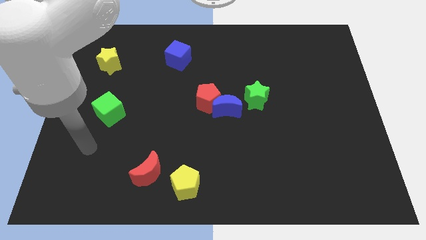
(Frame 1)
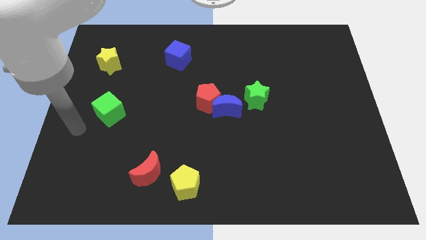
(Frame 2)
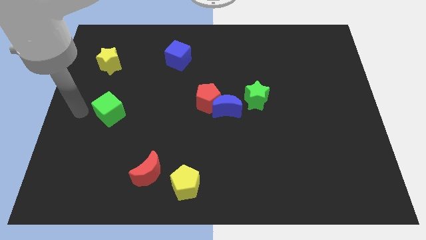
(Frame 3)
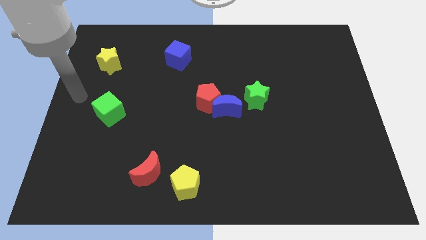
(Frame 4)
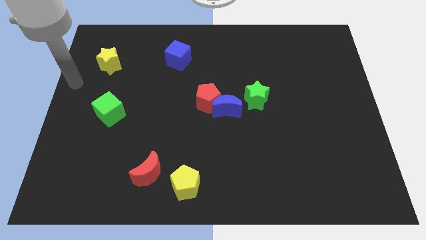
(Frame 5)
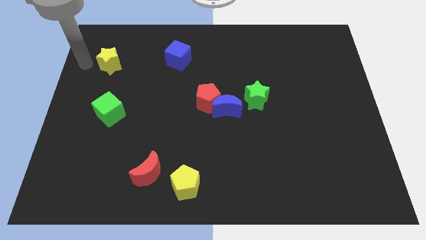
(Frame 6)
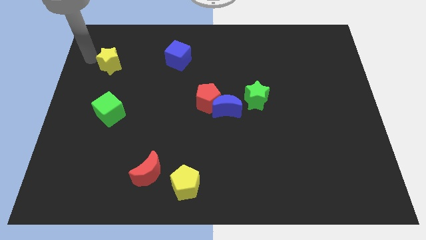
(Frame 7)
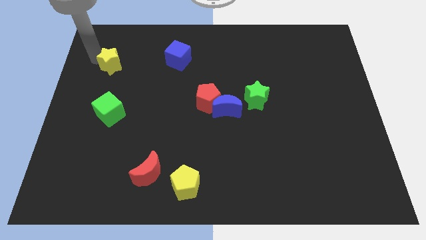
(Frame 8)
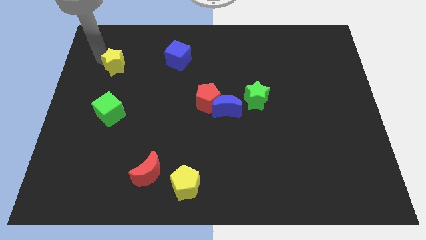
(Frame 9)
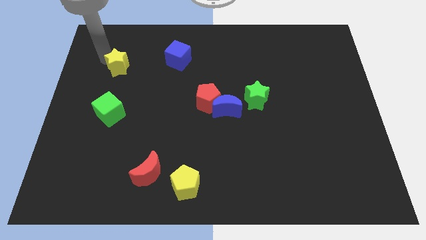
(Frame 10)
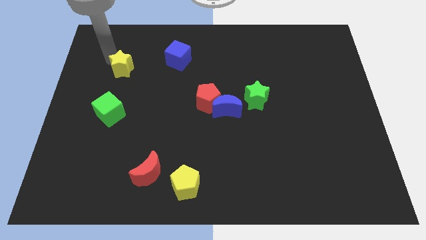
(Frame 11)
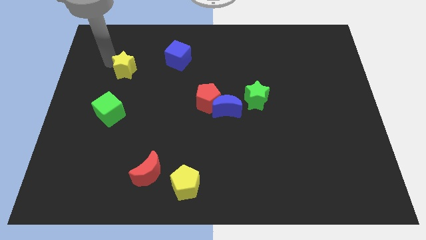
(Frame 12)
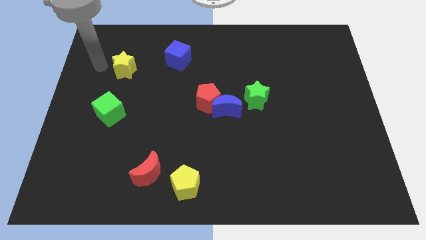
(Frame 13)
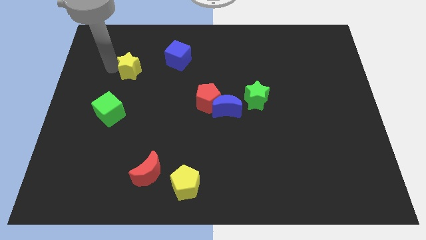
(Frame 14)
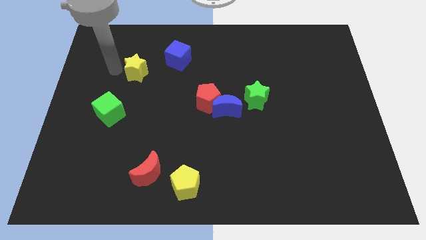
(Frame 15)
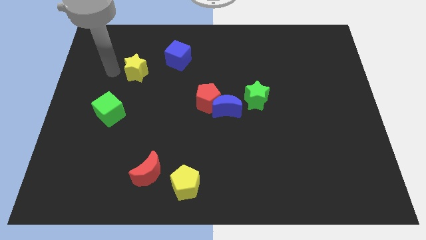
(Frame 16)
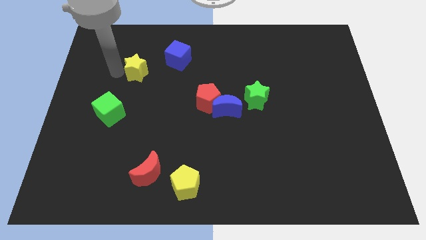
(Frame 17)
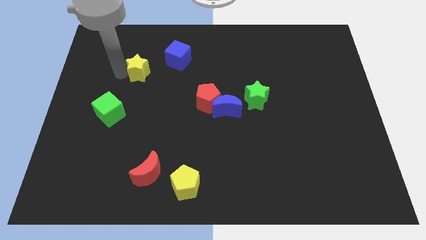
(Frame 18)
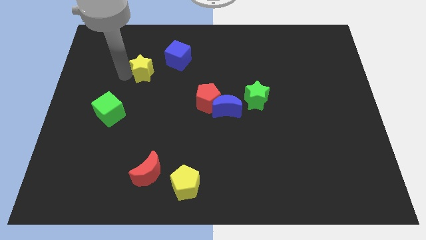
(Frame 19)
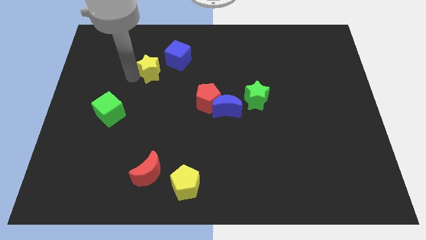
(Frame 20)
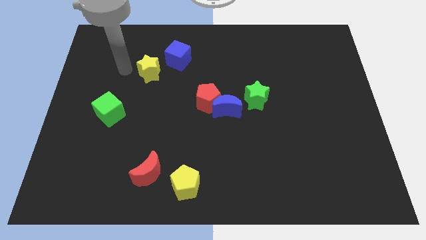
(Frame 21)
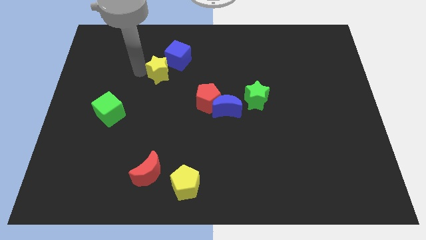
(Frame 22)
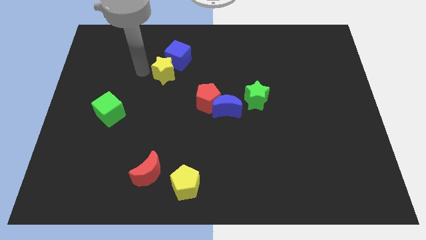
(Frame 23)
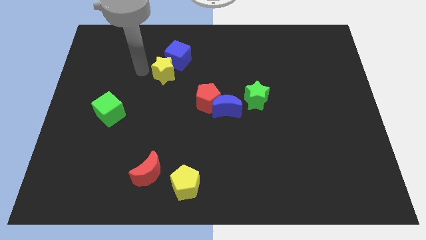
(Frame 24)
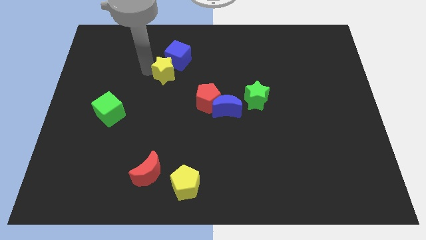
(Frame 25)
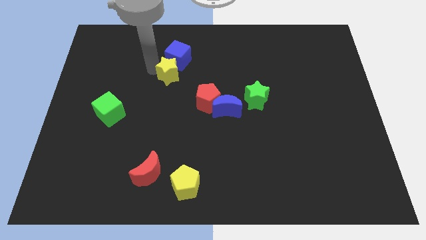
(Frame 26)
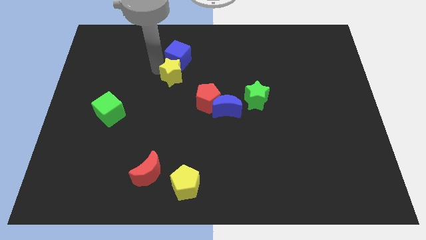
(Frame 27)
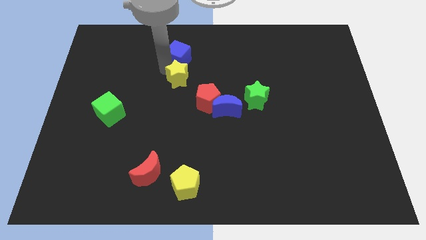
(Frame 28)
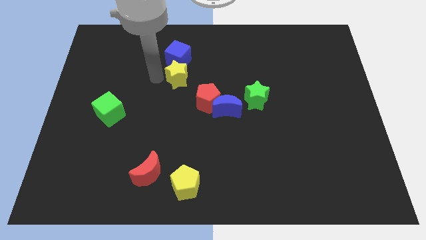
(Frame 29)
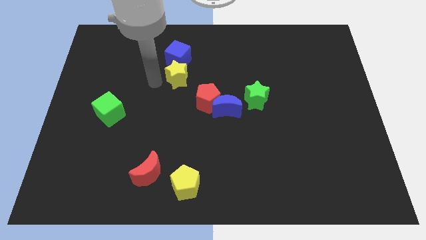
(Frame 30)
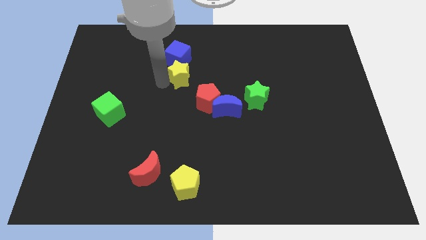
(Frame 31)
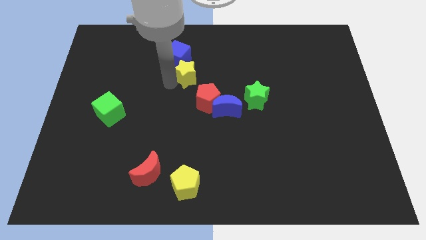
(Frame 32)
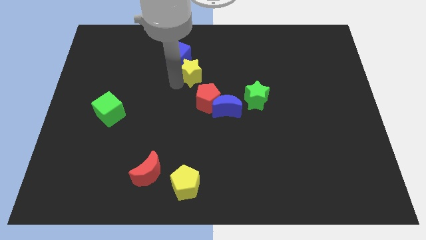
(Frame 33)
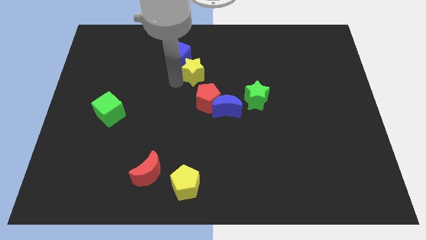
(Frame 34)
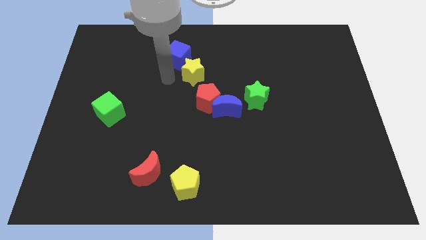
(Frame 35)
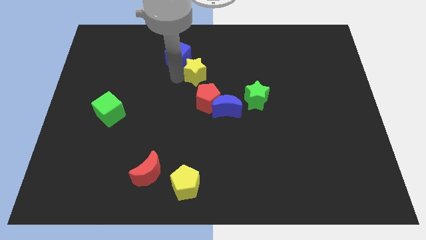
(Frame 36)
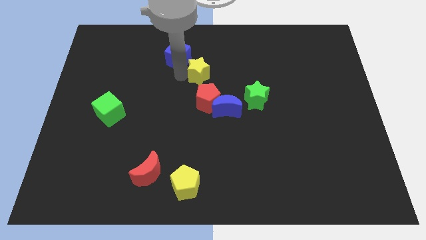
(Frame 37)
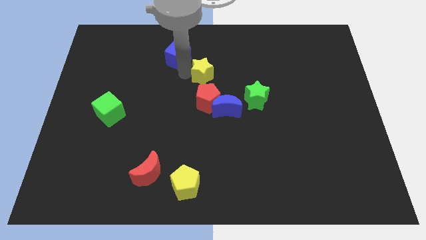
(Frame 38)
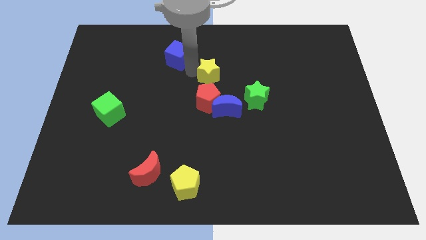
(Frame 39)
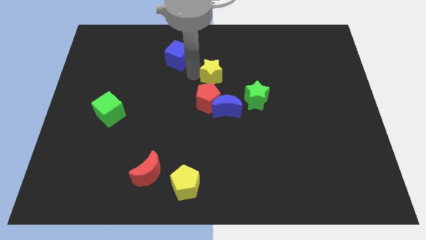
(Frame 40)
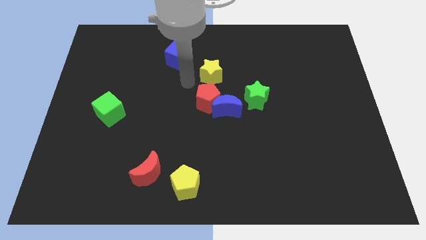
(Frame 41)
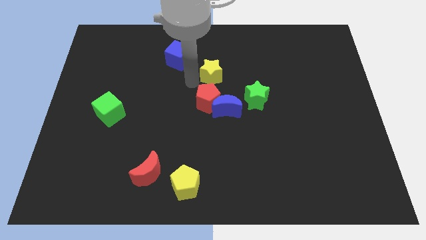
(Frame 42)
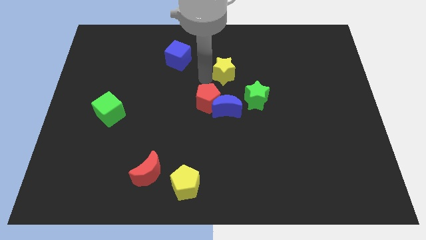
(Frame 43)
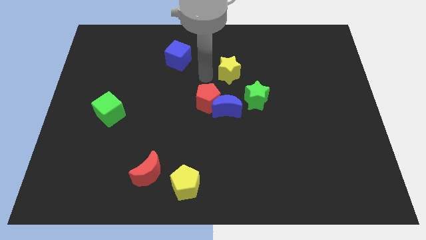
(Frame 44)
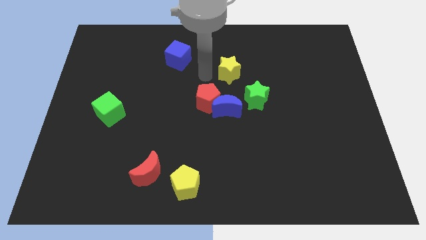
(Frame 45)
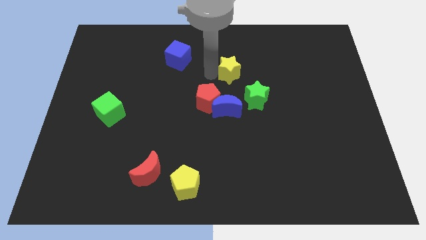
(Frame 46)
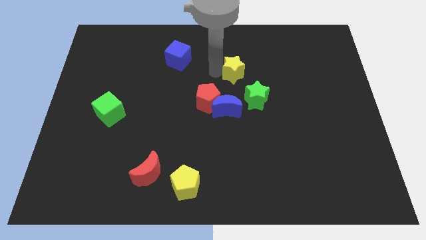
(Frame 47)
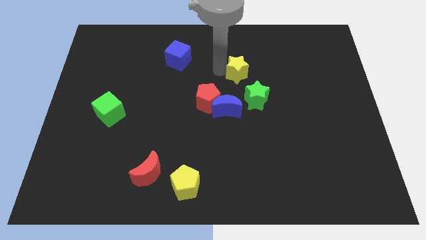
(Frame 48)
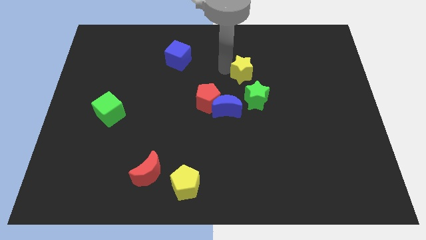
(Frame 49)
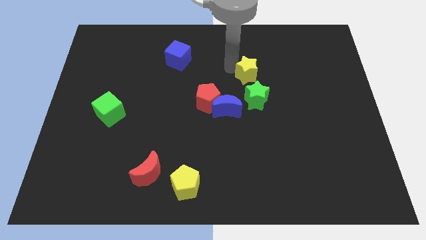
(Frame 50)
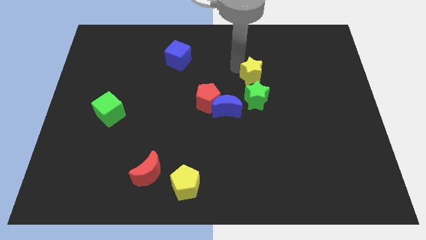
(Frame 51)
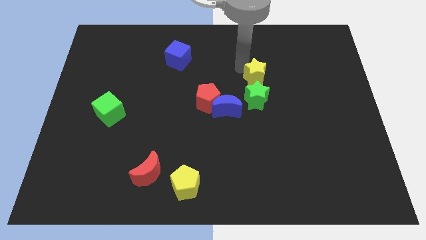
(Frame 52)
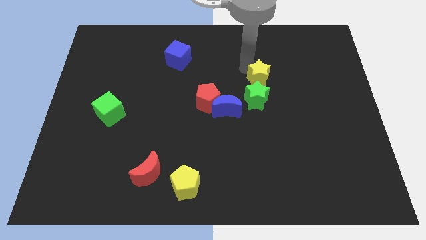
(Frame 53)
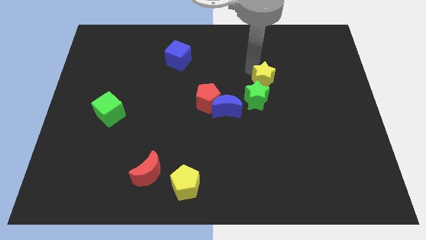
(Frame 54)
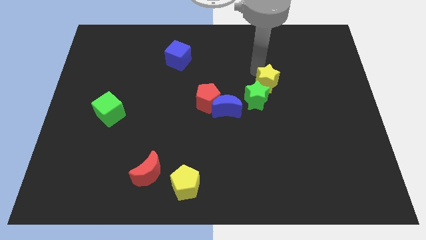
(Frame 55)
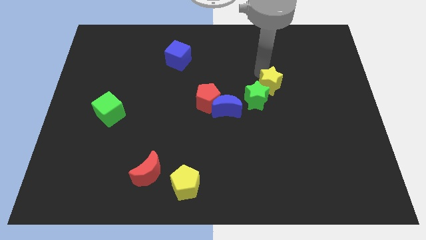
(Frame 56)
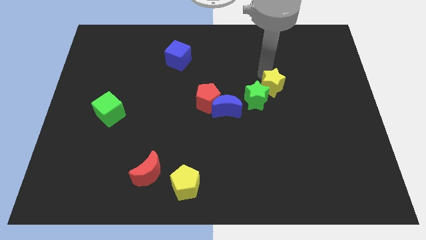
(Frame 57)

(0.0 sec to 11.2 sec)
slide the yellow star right of the green star

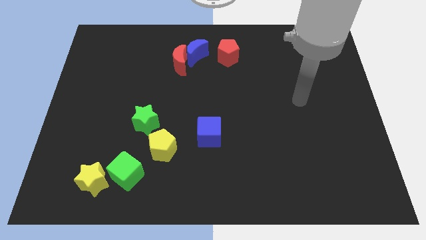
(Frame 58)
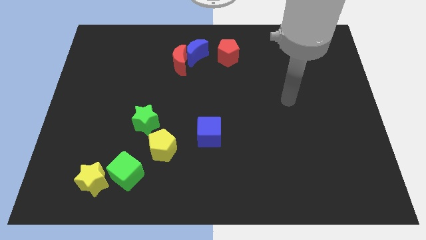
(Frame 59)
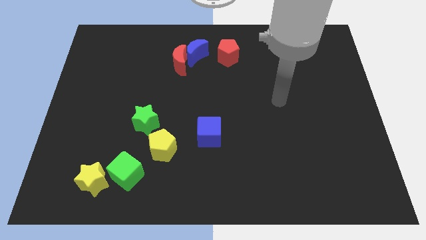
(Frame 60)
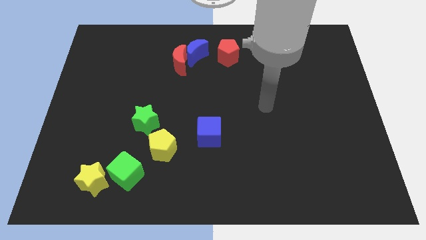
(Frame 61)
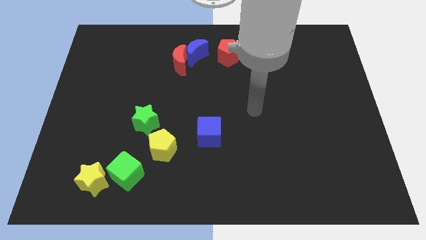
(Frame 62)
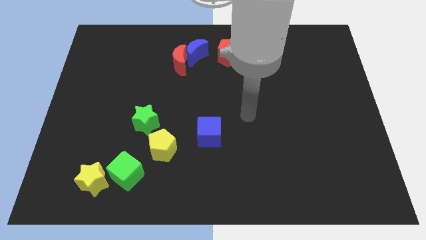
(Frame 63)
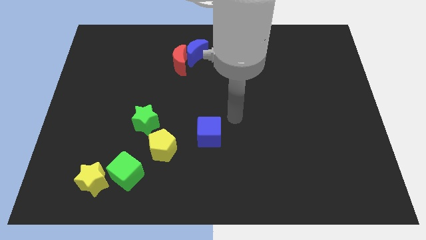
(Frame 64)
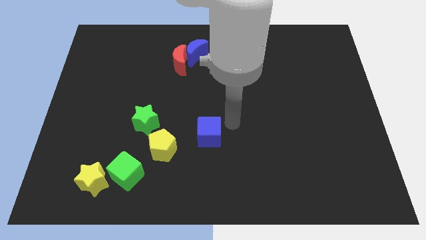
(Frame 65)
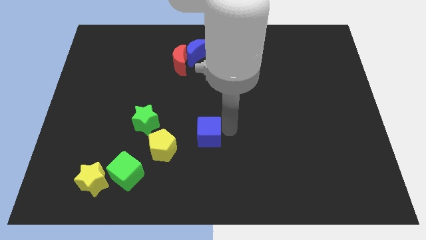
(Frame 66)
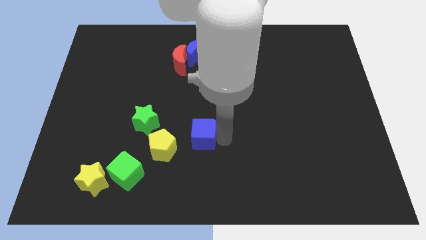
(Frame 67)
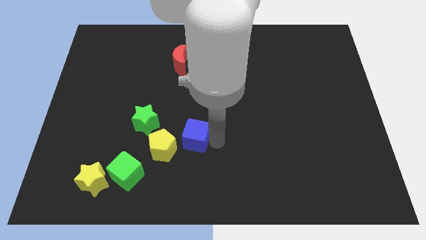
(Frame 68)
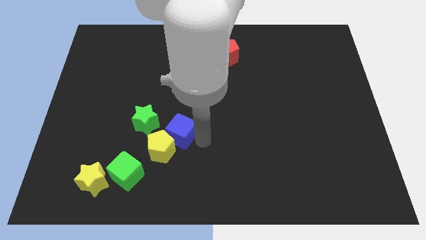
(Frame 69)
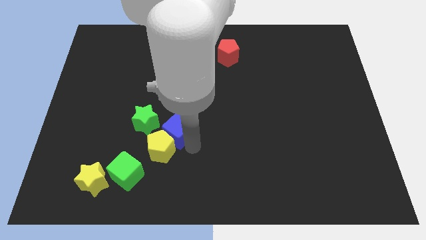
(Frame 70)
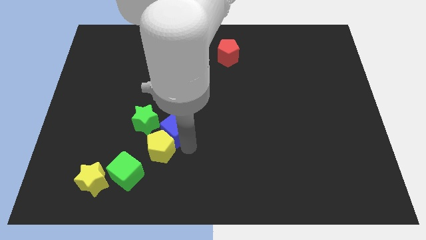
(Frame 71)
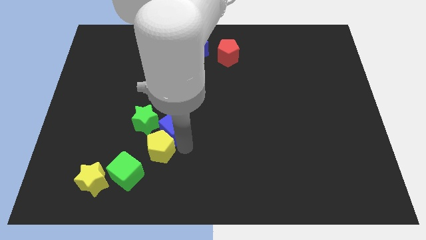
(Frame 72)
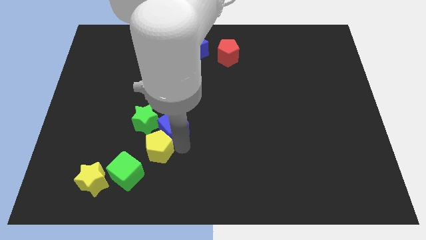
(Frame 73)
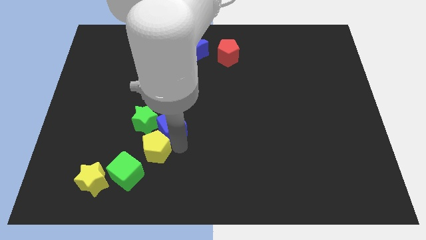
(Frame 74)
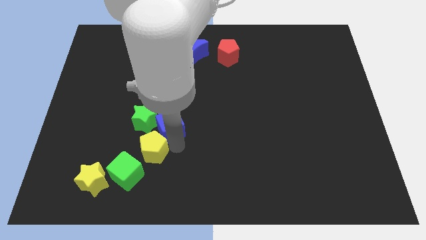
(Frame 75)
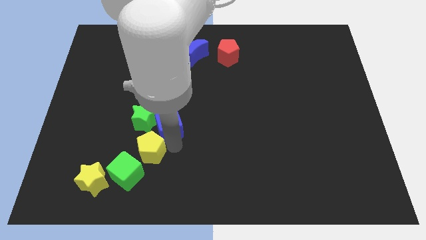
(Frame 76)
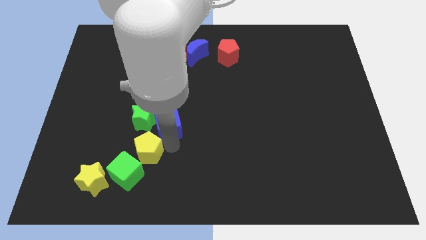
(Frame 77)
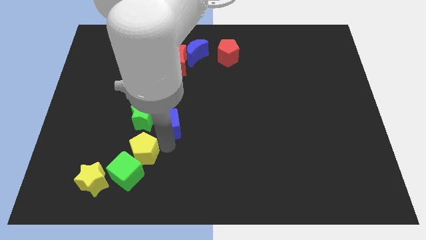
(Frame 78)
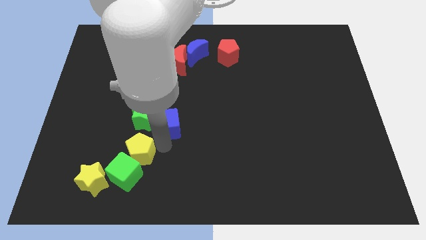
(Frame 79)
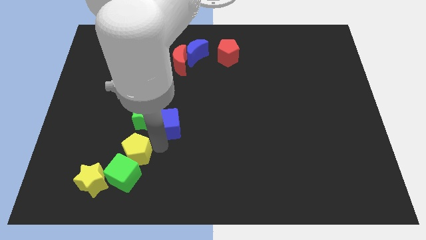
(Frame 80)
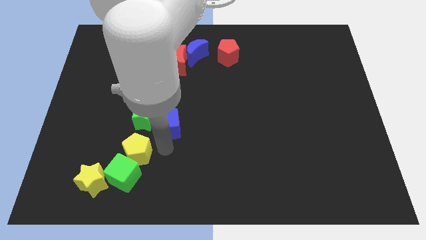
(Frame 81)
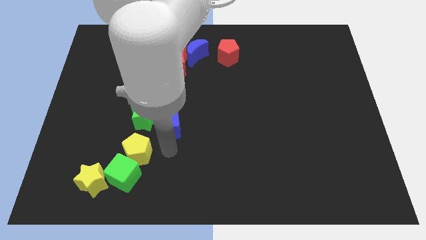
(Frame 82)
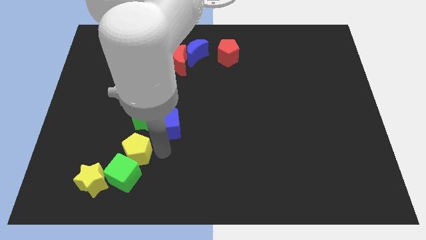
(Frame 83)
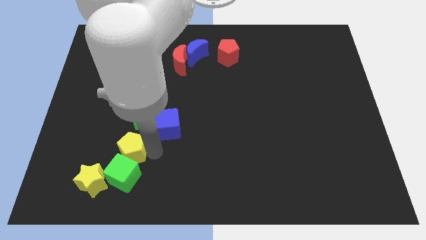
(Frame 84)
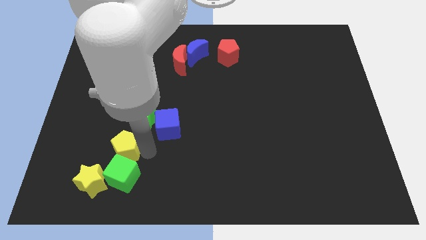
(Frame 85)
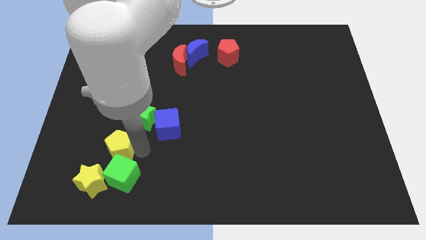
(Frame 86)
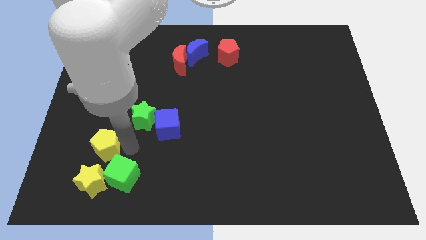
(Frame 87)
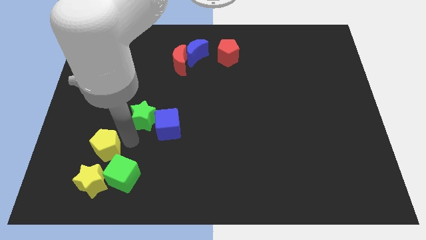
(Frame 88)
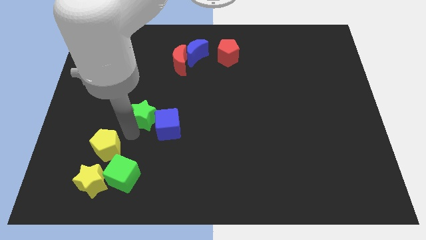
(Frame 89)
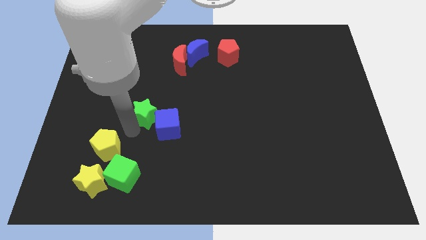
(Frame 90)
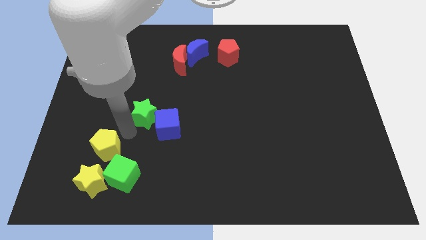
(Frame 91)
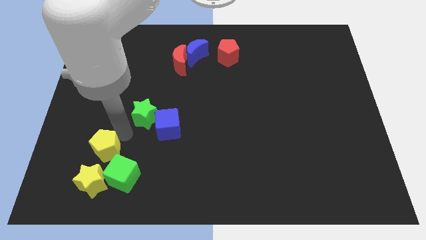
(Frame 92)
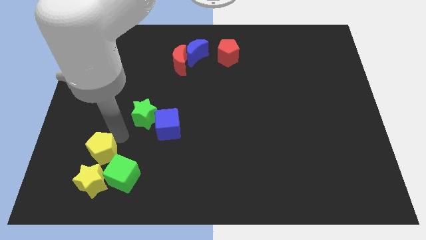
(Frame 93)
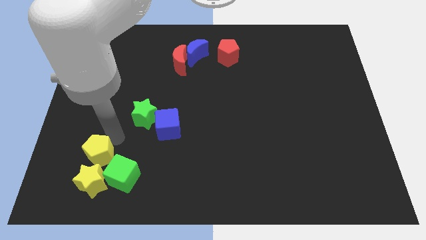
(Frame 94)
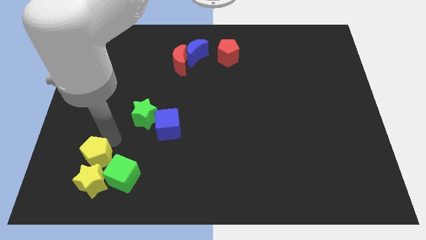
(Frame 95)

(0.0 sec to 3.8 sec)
move the yellow pentagon to the left side of the green cube
